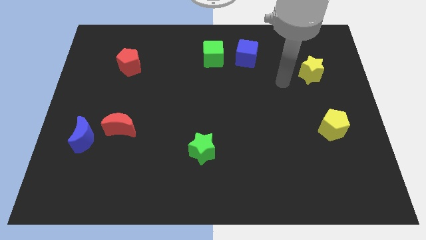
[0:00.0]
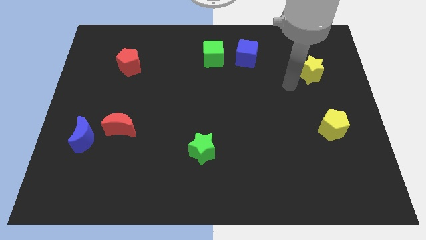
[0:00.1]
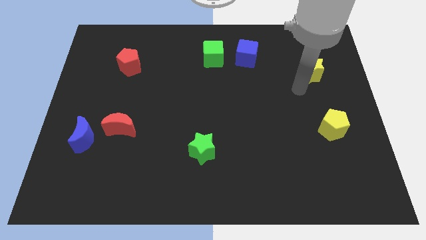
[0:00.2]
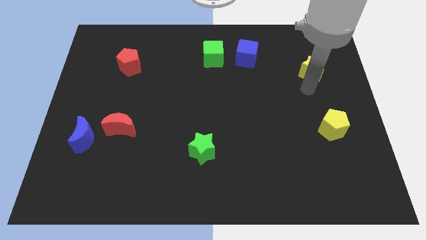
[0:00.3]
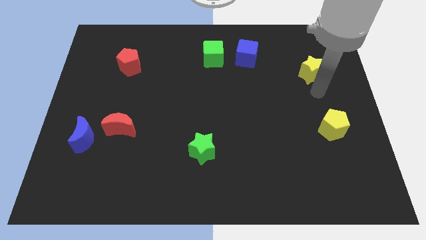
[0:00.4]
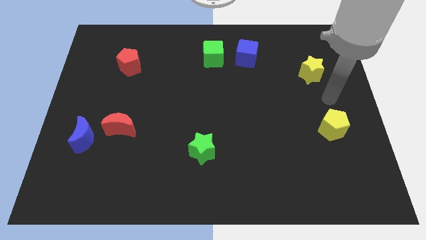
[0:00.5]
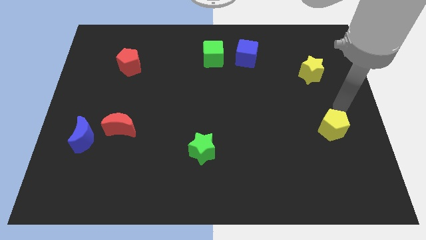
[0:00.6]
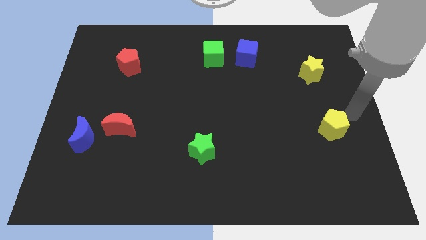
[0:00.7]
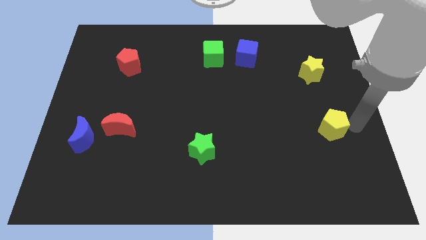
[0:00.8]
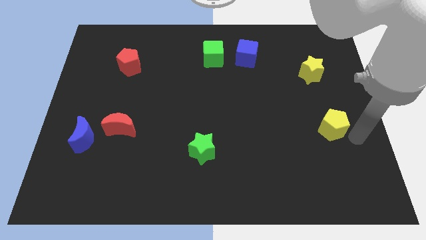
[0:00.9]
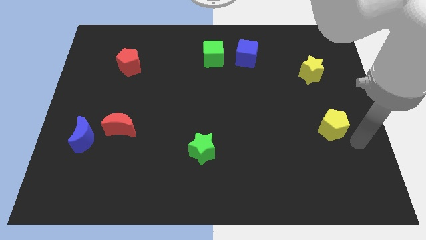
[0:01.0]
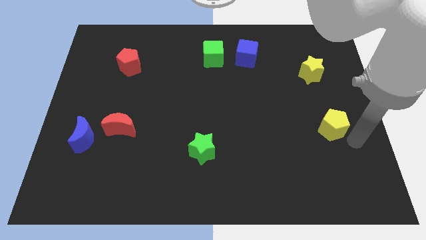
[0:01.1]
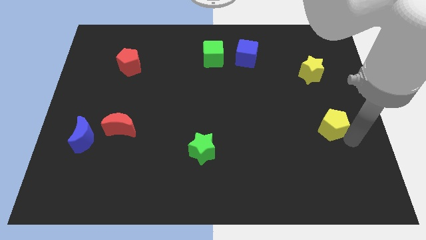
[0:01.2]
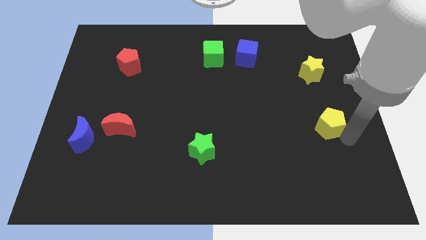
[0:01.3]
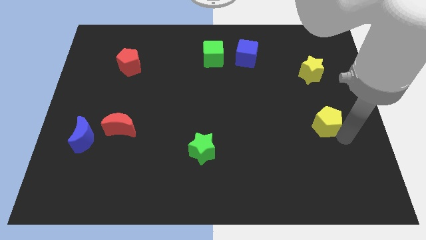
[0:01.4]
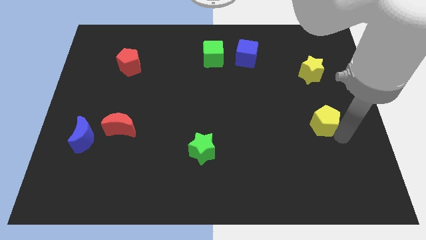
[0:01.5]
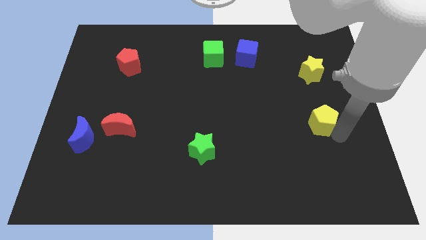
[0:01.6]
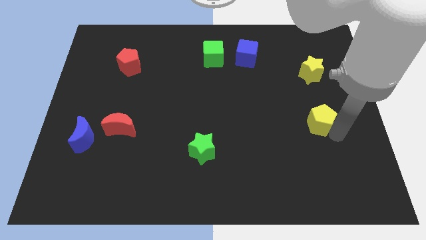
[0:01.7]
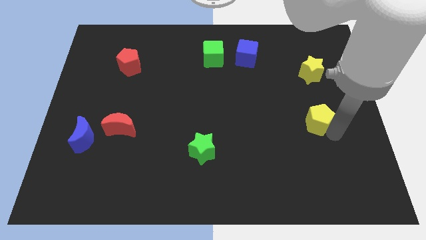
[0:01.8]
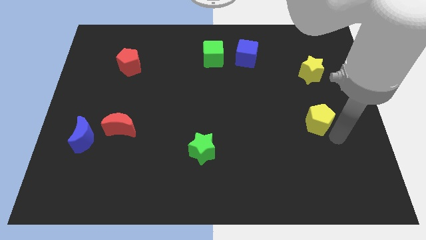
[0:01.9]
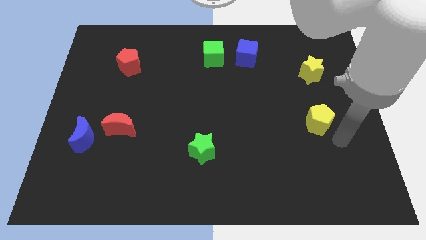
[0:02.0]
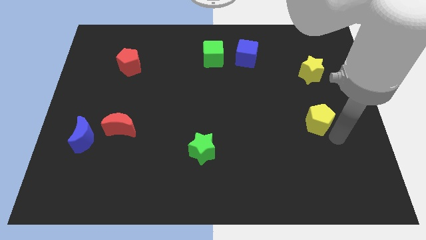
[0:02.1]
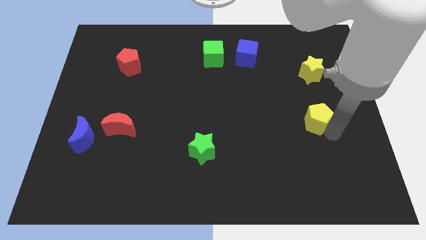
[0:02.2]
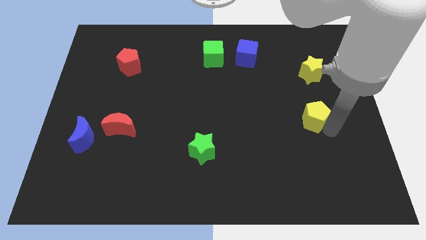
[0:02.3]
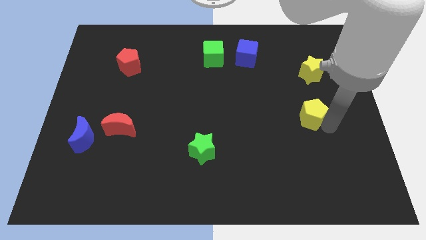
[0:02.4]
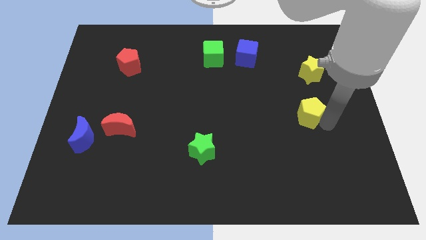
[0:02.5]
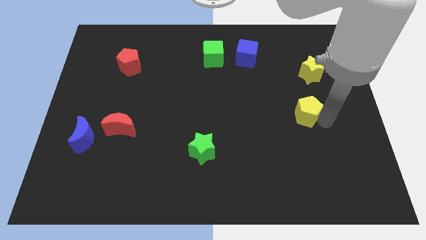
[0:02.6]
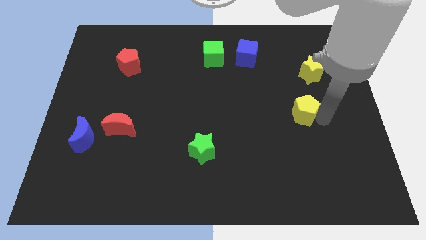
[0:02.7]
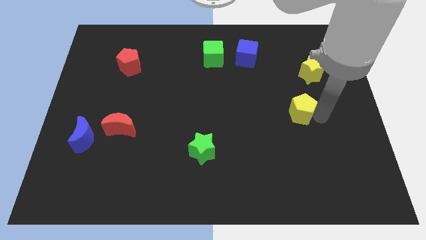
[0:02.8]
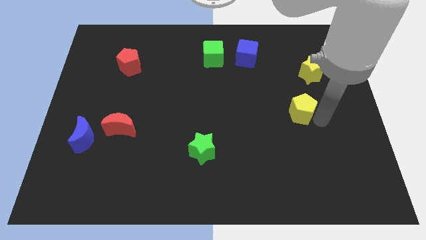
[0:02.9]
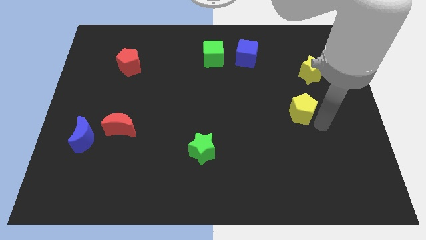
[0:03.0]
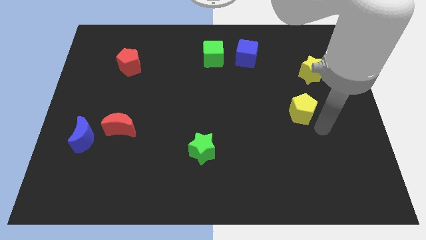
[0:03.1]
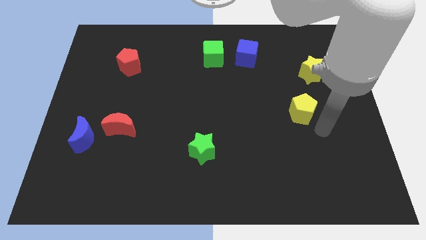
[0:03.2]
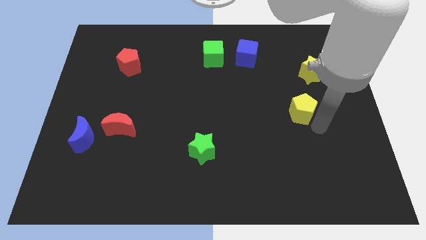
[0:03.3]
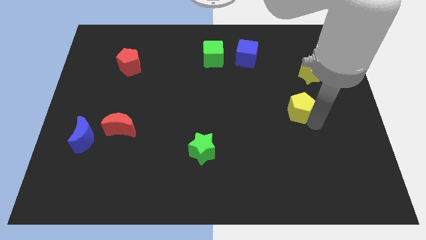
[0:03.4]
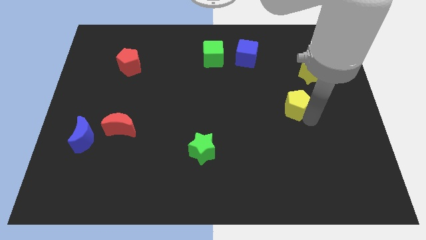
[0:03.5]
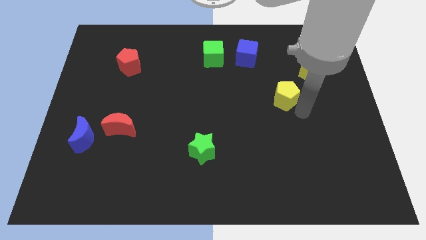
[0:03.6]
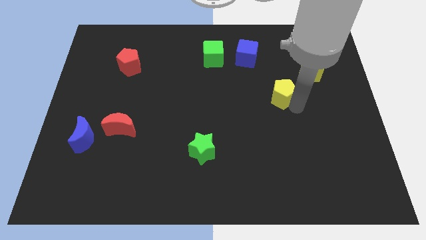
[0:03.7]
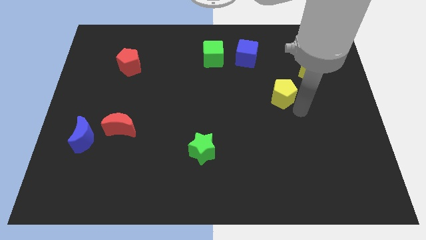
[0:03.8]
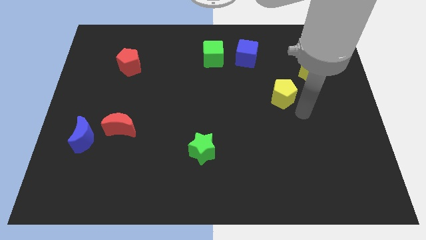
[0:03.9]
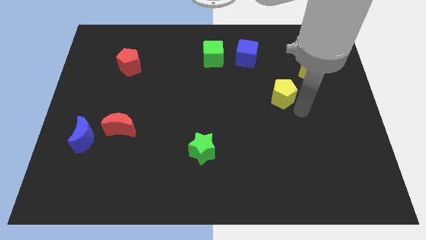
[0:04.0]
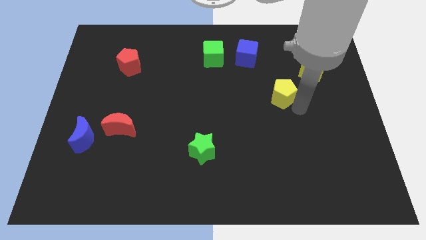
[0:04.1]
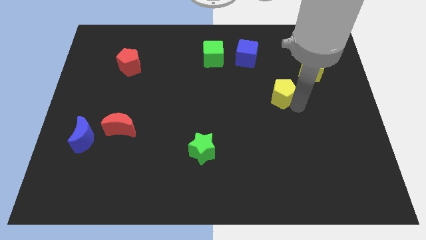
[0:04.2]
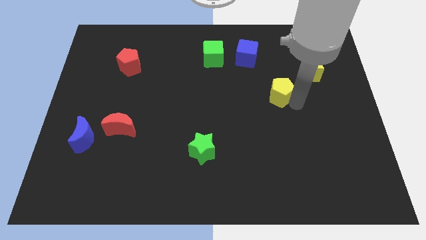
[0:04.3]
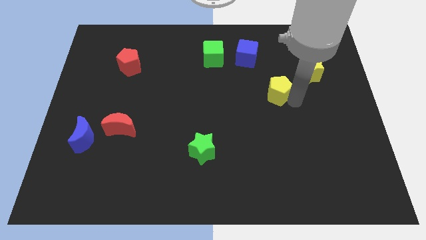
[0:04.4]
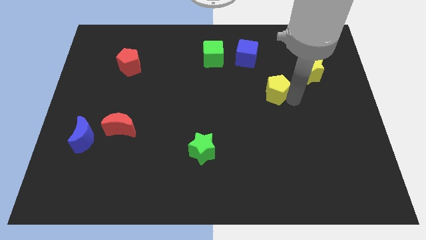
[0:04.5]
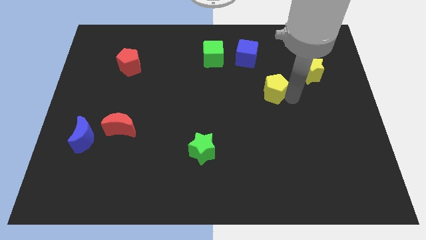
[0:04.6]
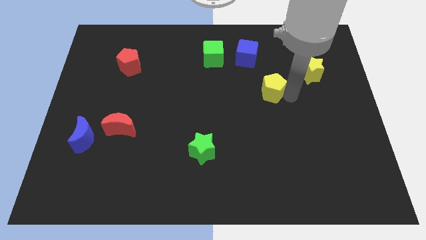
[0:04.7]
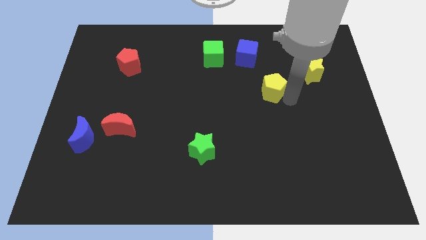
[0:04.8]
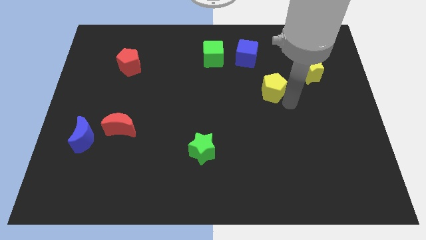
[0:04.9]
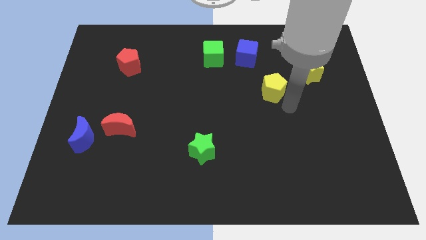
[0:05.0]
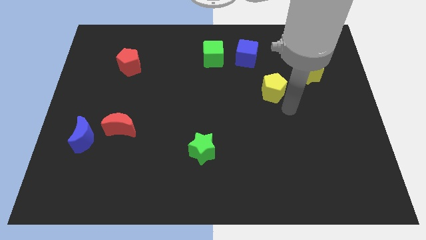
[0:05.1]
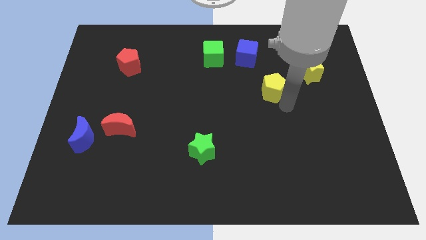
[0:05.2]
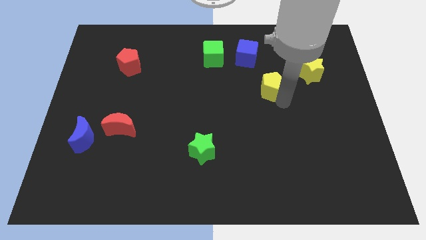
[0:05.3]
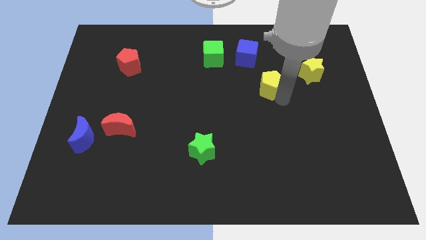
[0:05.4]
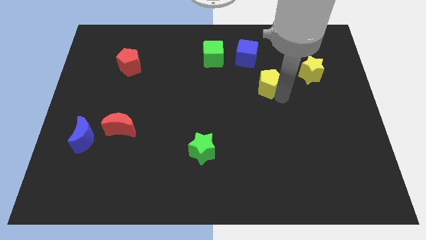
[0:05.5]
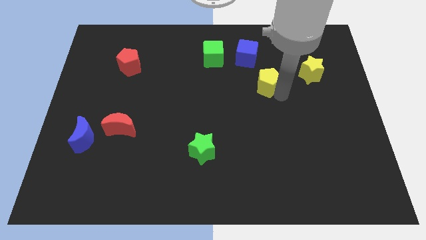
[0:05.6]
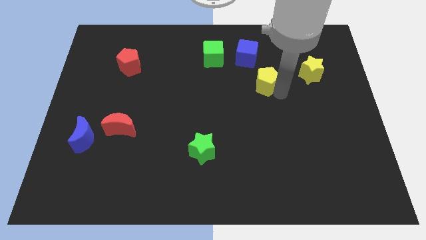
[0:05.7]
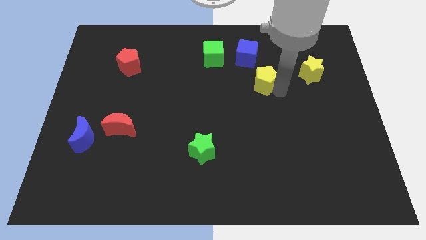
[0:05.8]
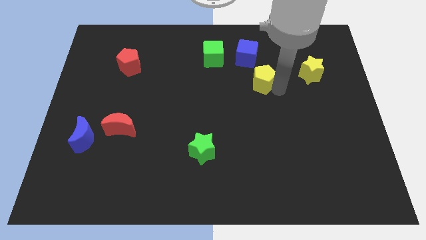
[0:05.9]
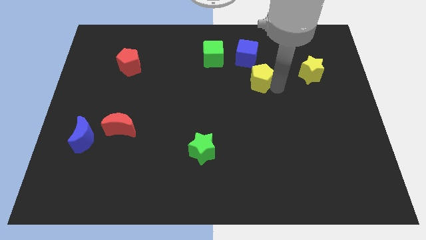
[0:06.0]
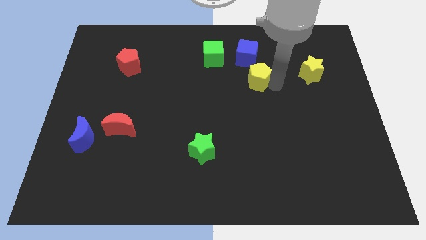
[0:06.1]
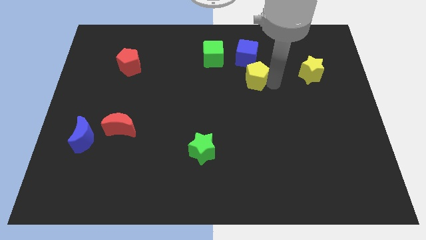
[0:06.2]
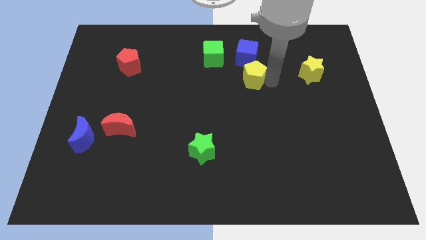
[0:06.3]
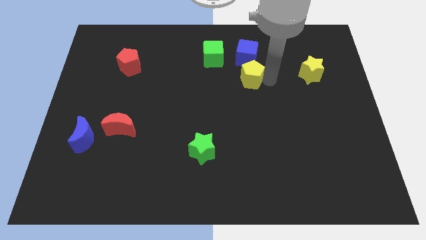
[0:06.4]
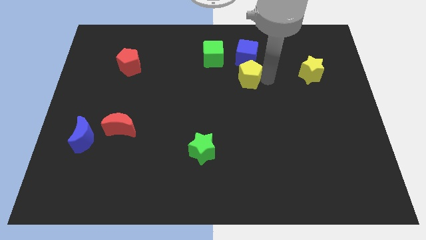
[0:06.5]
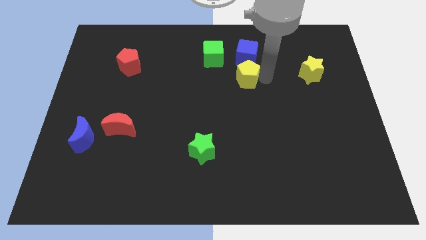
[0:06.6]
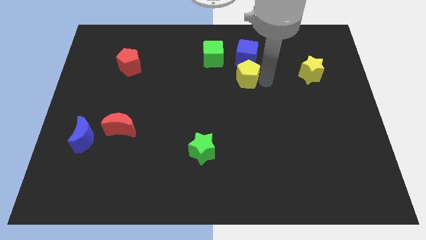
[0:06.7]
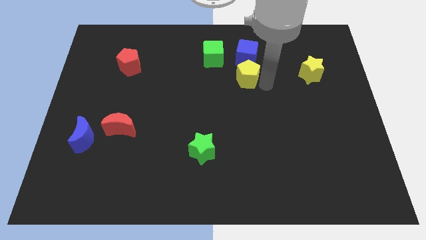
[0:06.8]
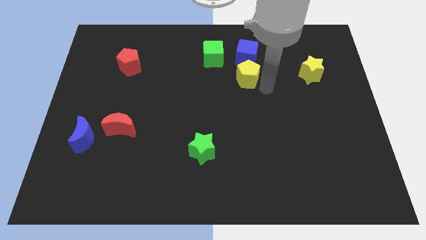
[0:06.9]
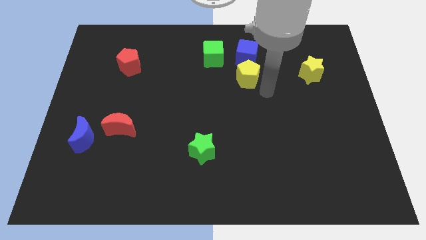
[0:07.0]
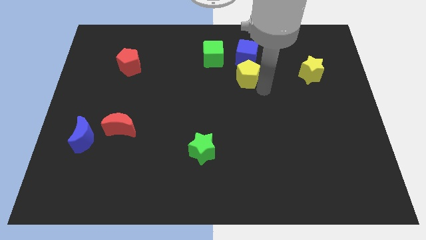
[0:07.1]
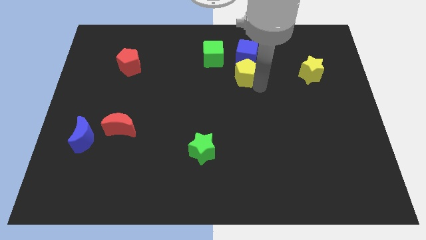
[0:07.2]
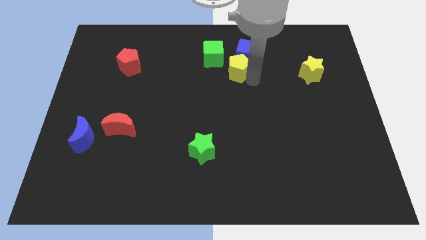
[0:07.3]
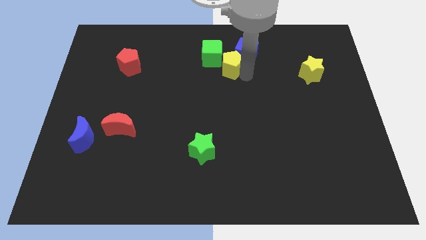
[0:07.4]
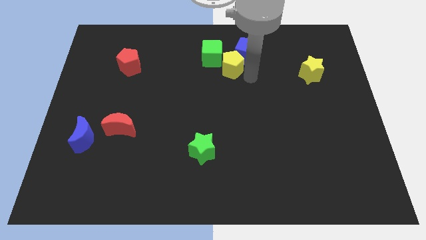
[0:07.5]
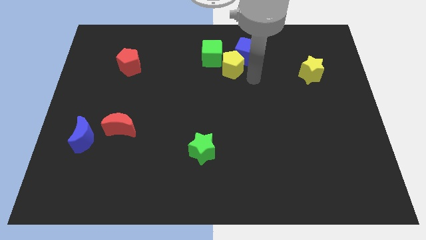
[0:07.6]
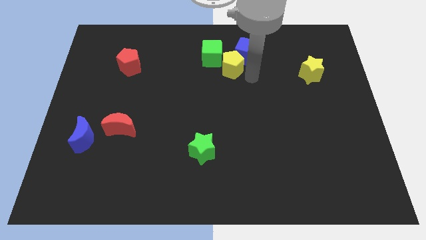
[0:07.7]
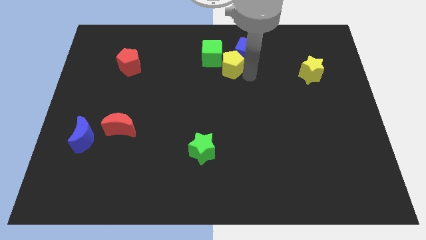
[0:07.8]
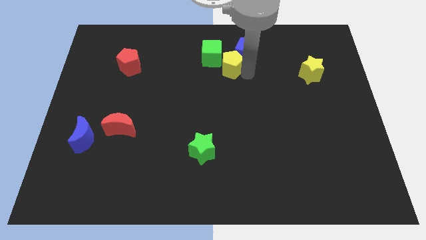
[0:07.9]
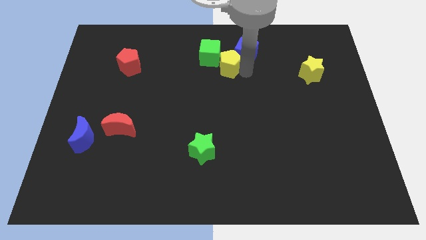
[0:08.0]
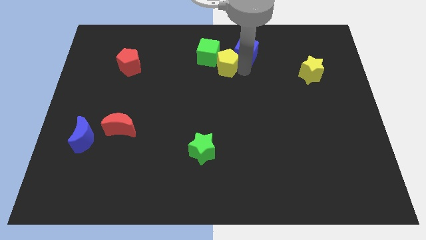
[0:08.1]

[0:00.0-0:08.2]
put the yellow pentagon next to the green cube
